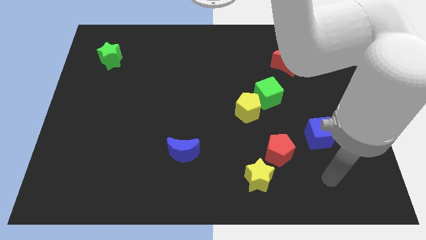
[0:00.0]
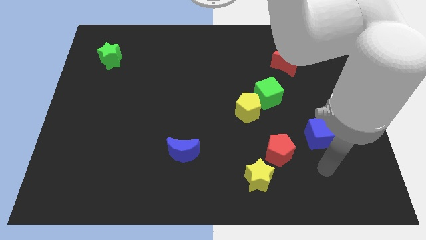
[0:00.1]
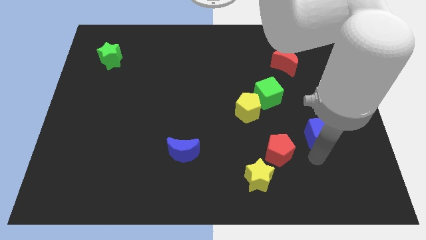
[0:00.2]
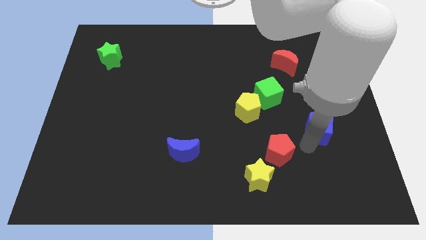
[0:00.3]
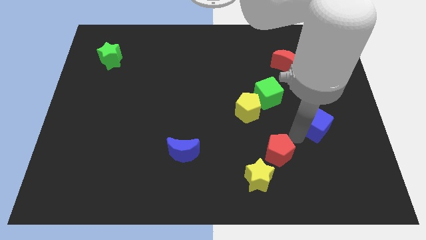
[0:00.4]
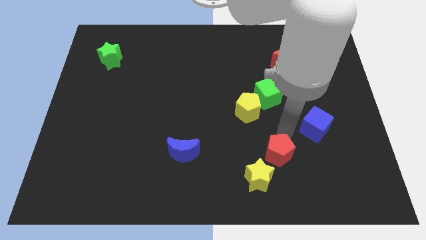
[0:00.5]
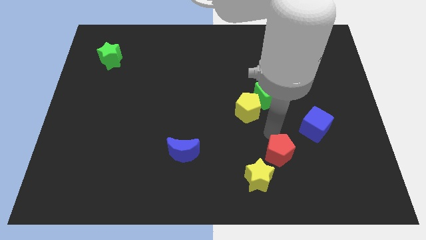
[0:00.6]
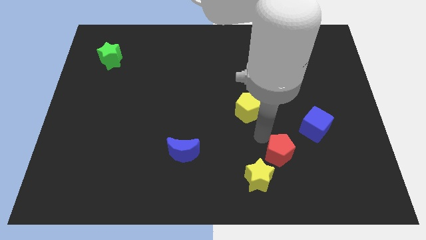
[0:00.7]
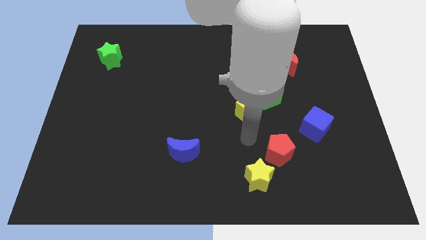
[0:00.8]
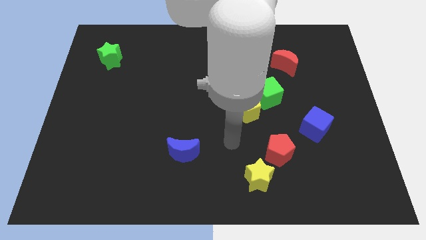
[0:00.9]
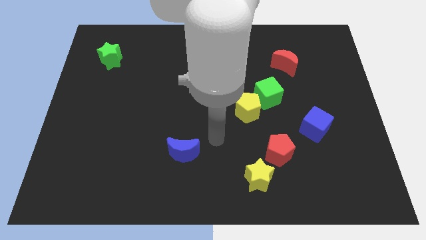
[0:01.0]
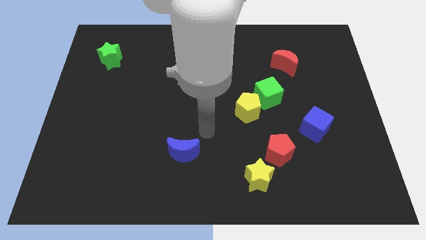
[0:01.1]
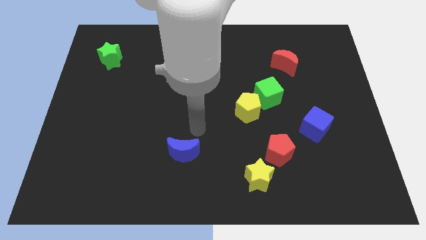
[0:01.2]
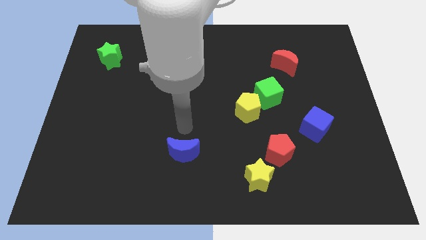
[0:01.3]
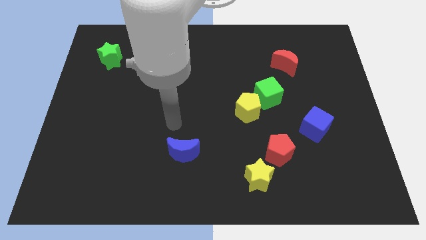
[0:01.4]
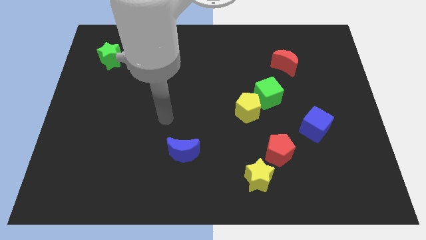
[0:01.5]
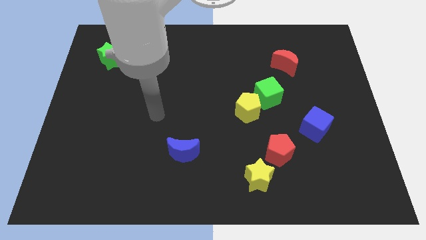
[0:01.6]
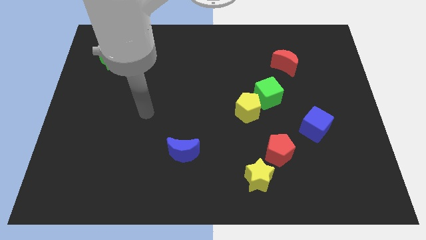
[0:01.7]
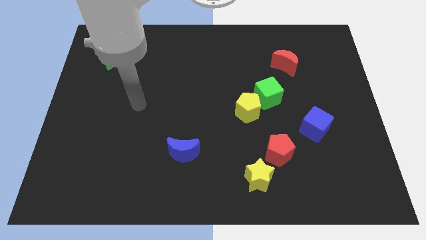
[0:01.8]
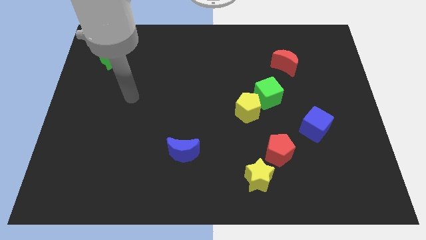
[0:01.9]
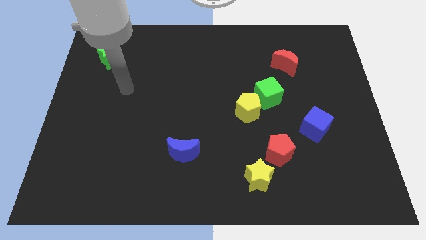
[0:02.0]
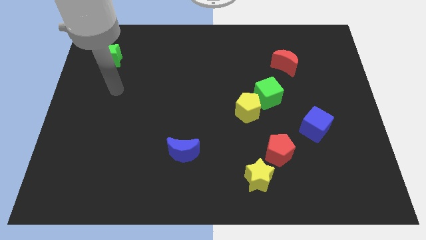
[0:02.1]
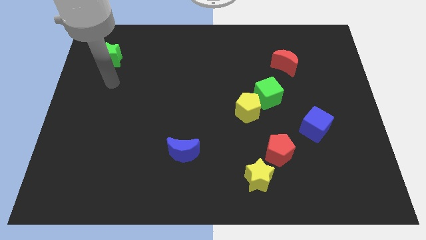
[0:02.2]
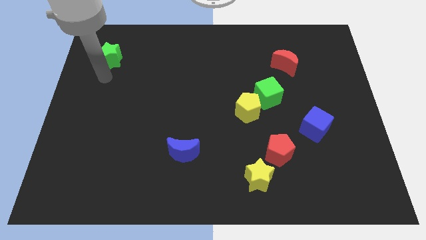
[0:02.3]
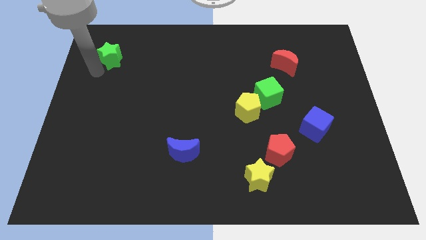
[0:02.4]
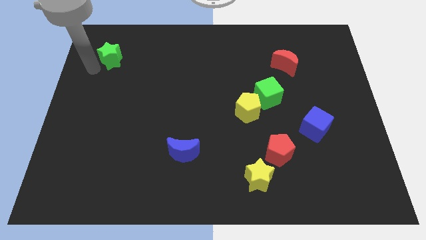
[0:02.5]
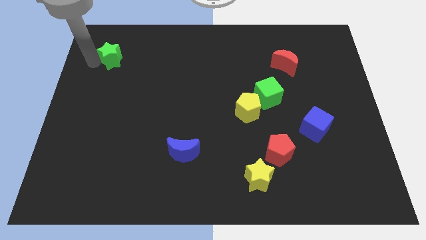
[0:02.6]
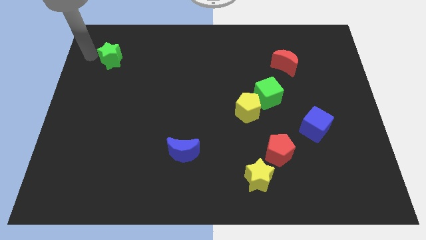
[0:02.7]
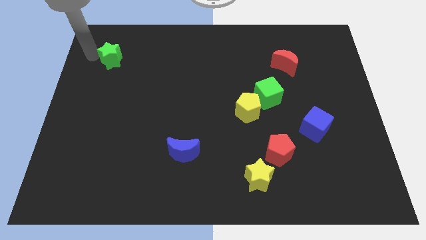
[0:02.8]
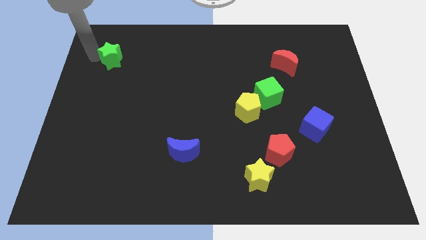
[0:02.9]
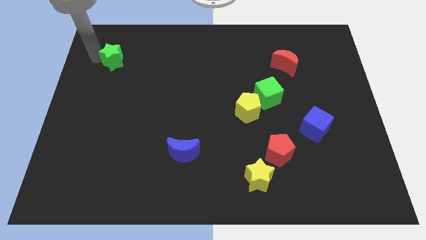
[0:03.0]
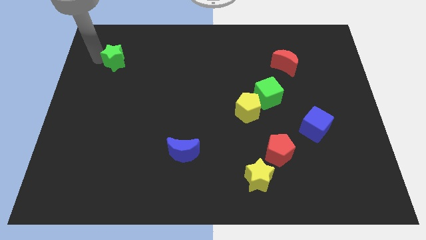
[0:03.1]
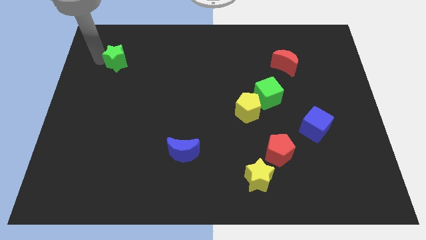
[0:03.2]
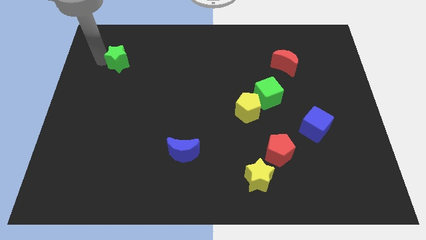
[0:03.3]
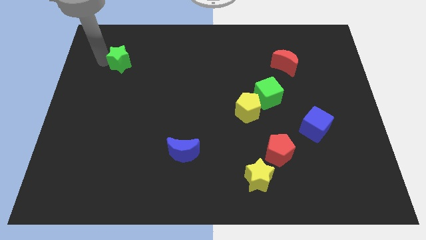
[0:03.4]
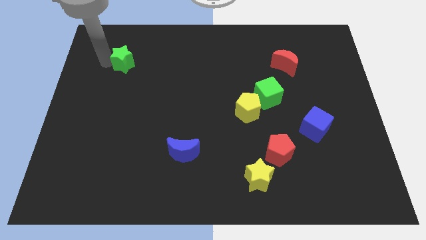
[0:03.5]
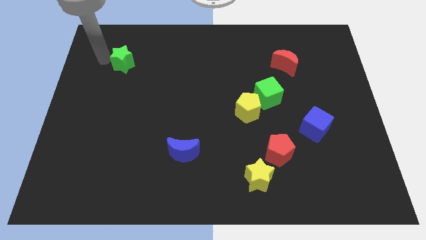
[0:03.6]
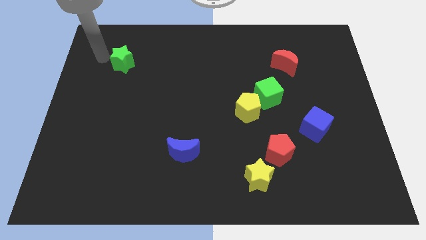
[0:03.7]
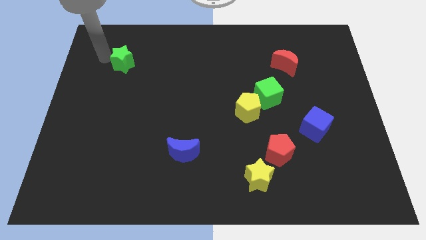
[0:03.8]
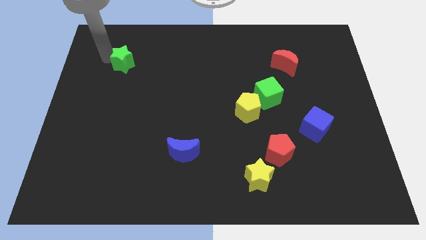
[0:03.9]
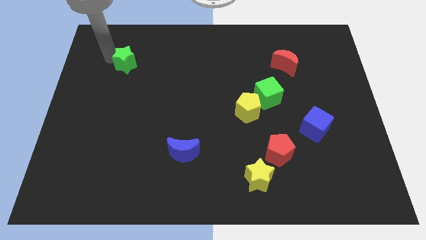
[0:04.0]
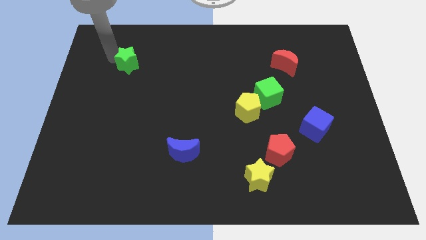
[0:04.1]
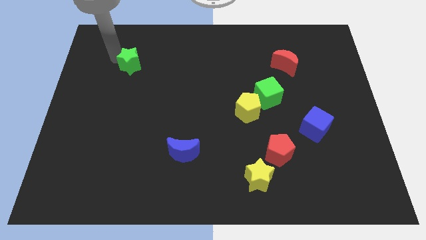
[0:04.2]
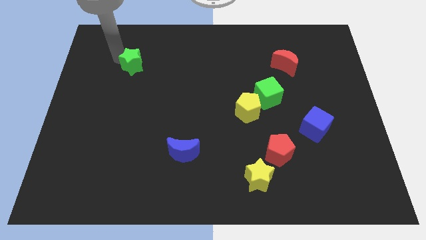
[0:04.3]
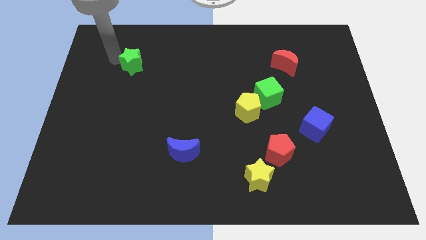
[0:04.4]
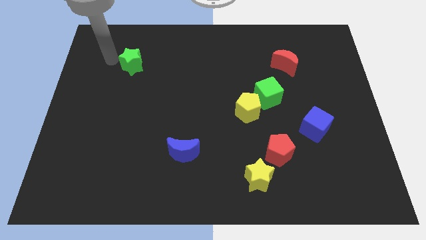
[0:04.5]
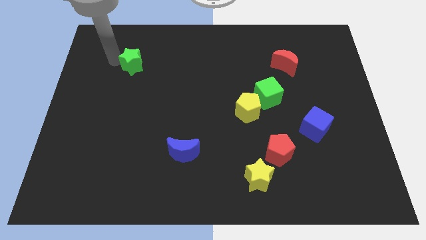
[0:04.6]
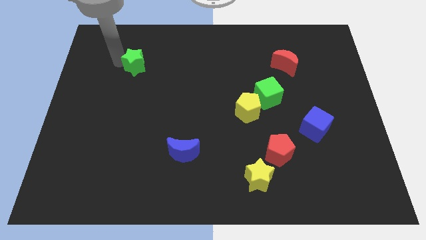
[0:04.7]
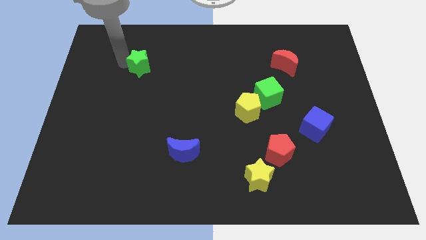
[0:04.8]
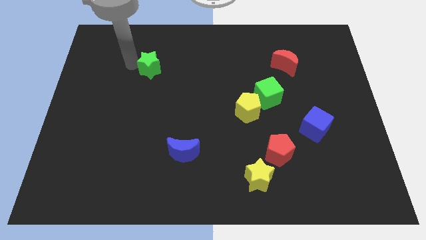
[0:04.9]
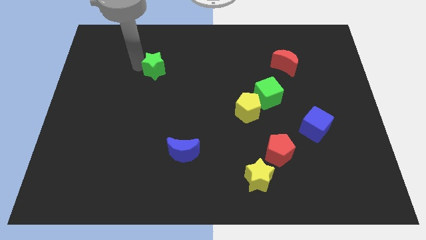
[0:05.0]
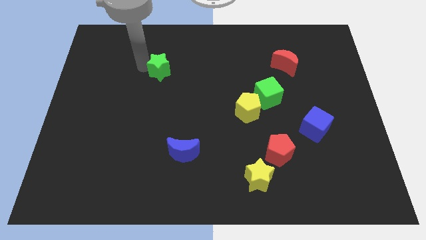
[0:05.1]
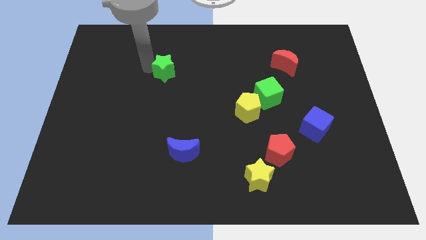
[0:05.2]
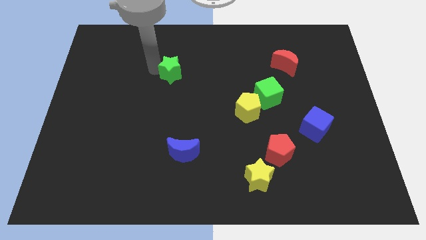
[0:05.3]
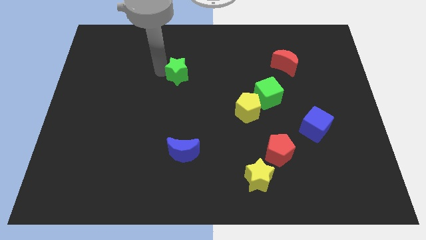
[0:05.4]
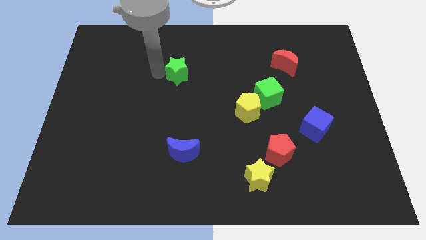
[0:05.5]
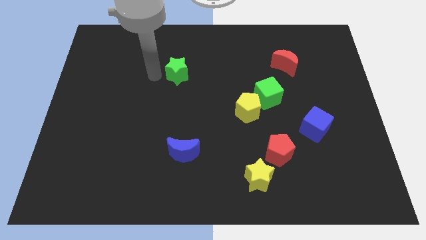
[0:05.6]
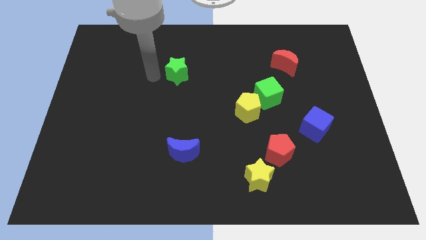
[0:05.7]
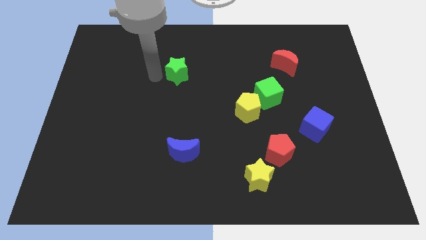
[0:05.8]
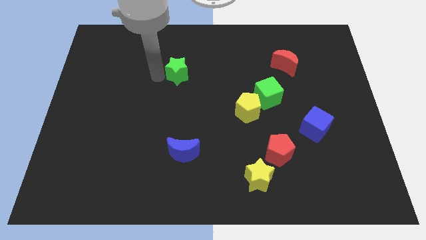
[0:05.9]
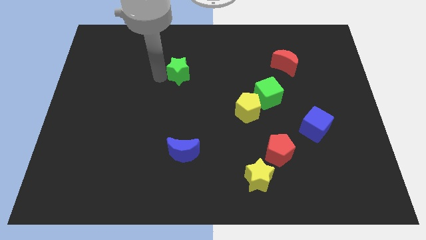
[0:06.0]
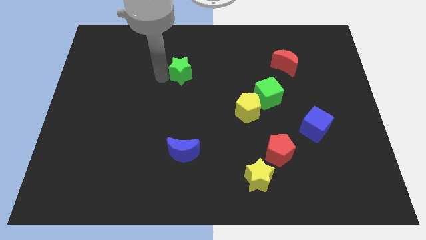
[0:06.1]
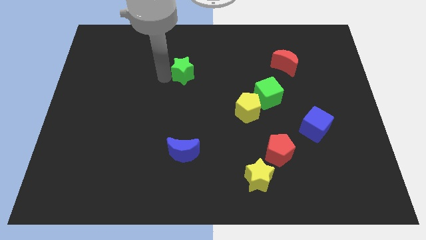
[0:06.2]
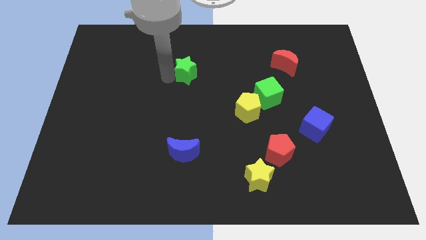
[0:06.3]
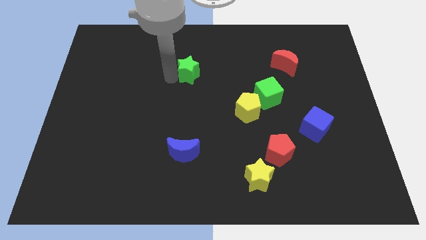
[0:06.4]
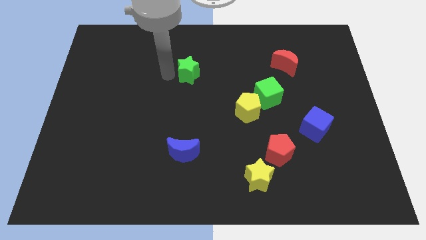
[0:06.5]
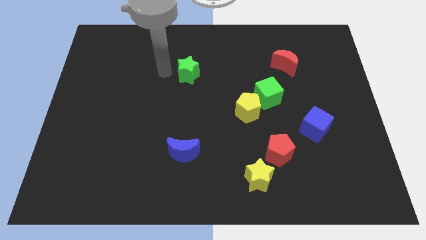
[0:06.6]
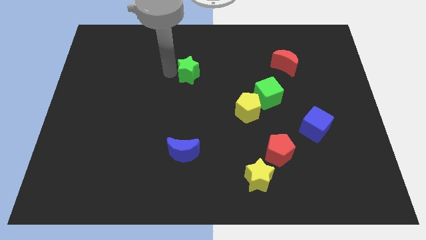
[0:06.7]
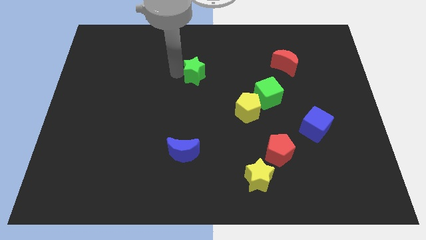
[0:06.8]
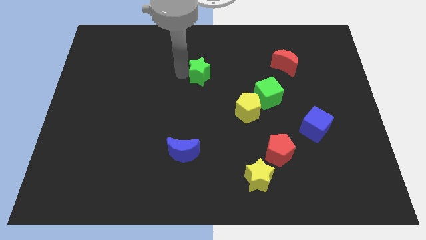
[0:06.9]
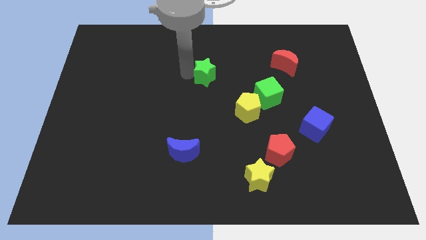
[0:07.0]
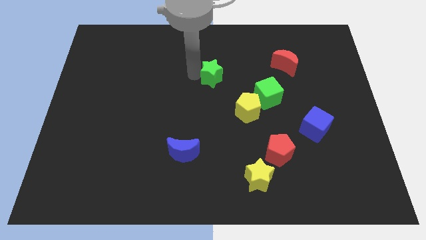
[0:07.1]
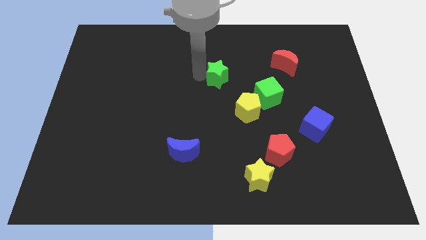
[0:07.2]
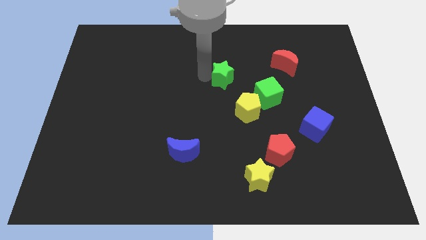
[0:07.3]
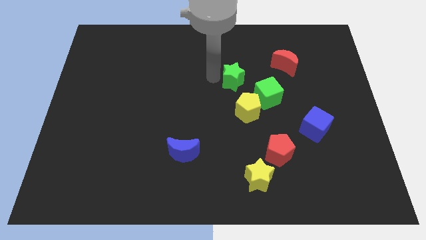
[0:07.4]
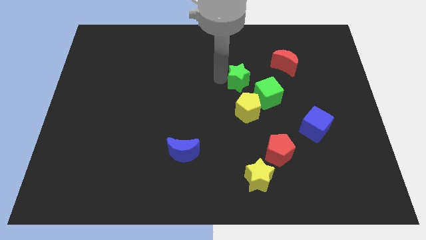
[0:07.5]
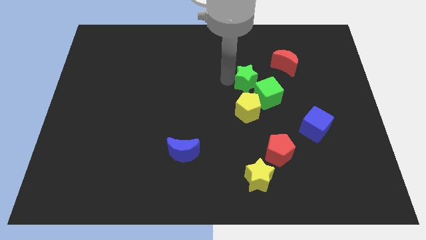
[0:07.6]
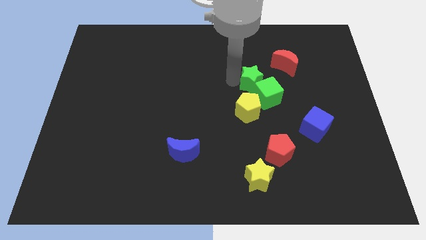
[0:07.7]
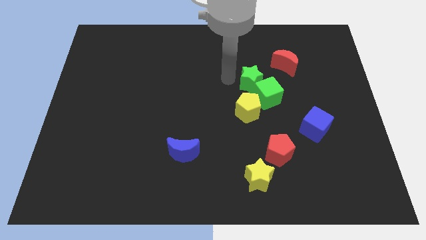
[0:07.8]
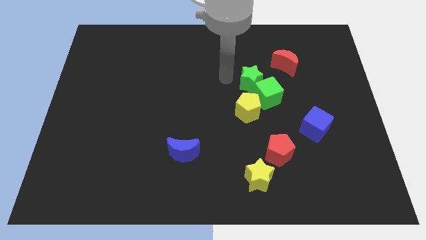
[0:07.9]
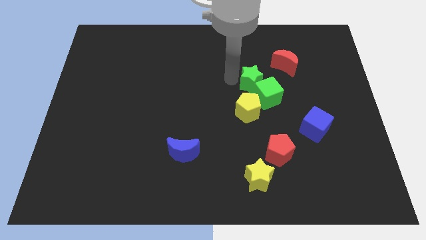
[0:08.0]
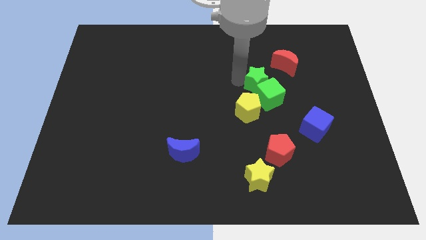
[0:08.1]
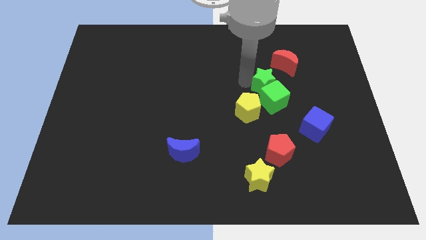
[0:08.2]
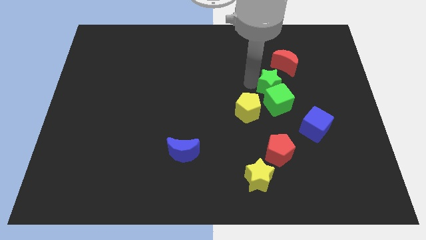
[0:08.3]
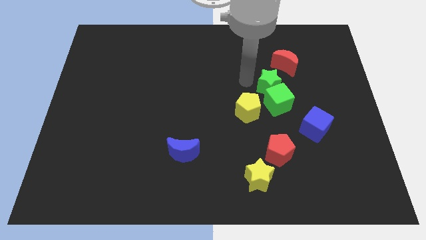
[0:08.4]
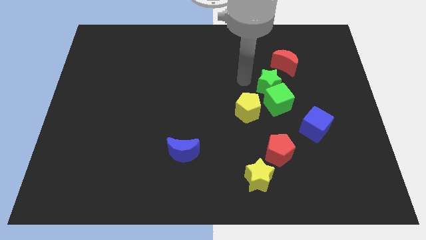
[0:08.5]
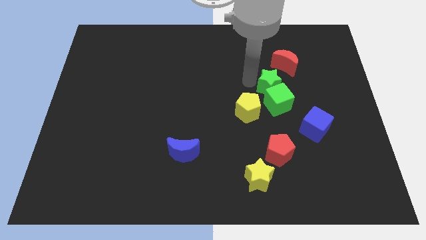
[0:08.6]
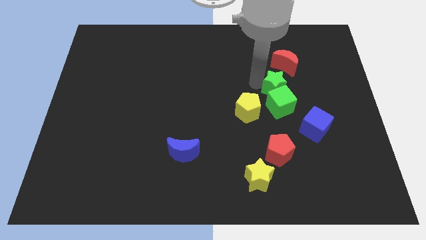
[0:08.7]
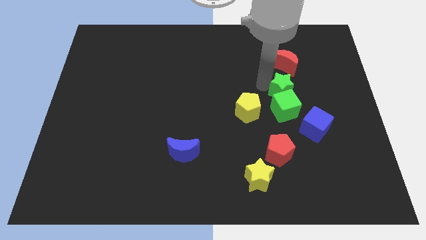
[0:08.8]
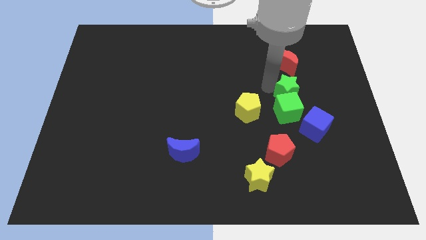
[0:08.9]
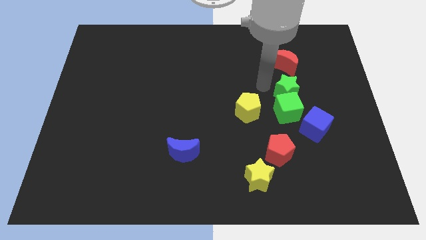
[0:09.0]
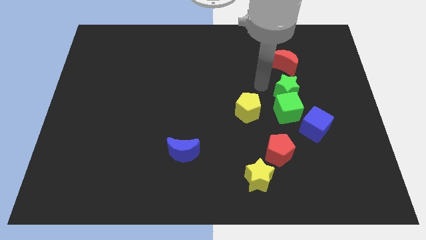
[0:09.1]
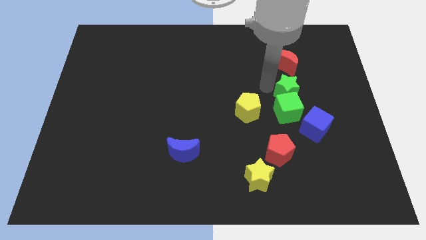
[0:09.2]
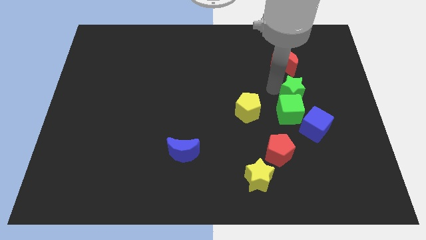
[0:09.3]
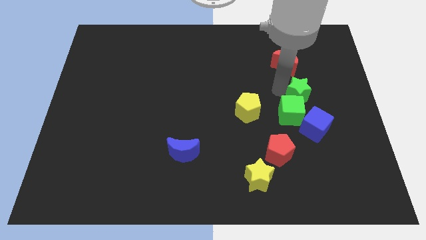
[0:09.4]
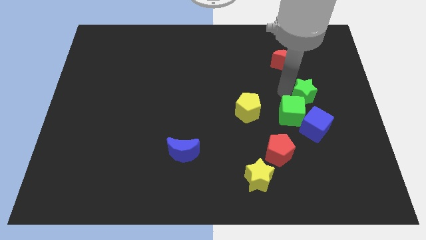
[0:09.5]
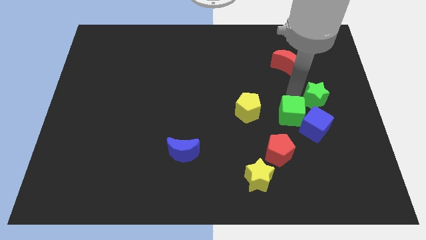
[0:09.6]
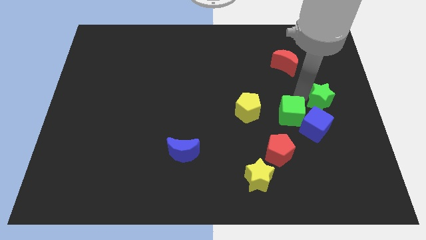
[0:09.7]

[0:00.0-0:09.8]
slide the green star to the center right
